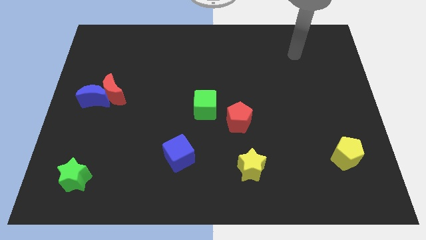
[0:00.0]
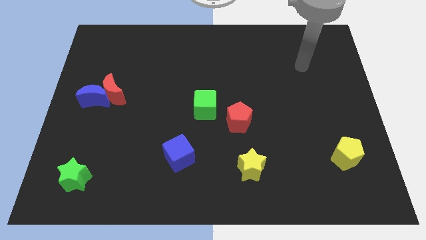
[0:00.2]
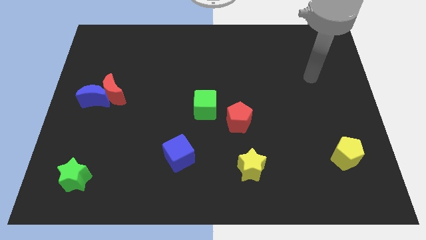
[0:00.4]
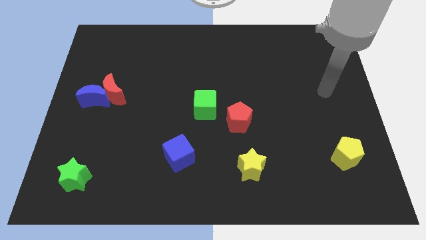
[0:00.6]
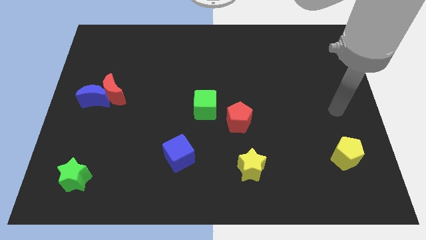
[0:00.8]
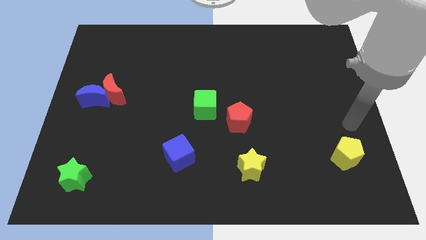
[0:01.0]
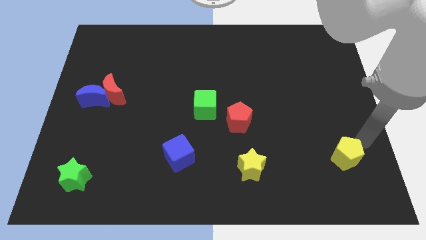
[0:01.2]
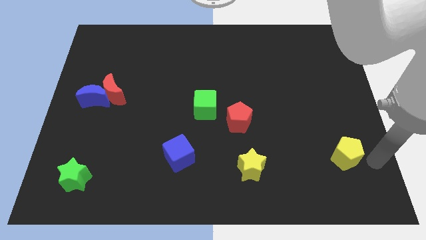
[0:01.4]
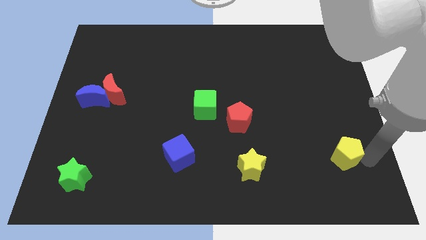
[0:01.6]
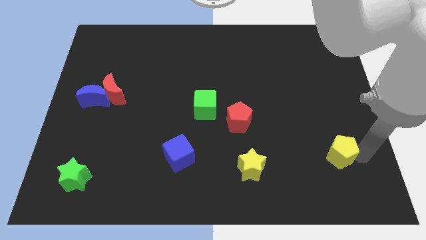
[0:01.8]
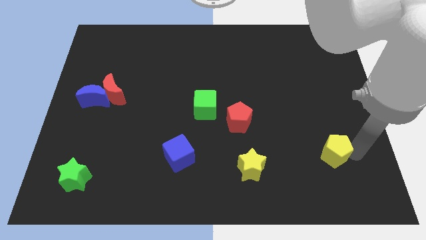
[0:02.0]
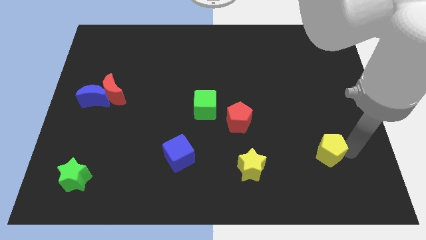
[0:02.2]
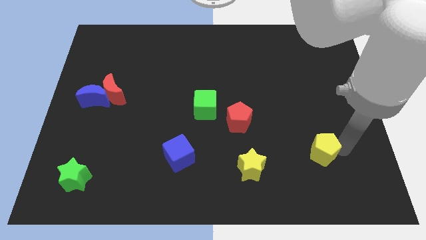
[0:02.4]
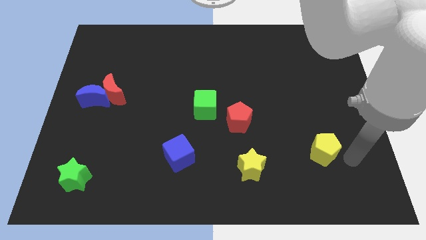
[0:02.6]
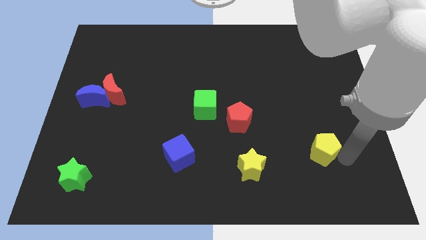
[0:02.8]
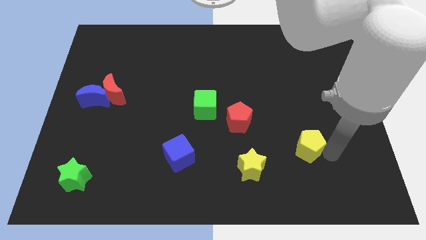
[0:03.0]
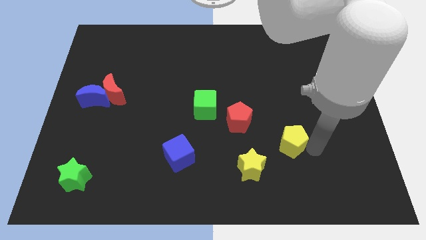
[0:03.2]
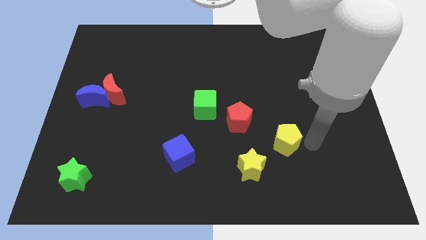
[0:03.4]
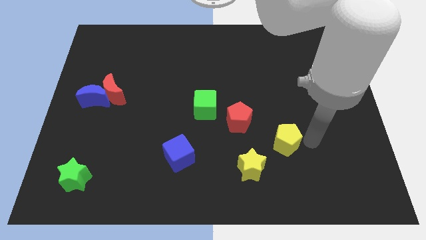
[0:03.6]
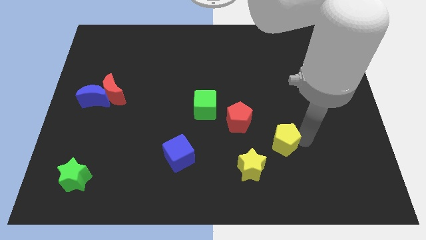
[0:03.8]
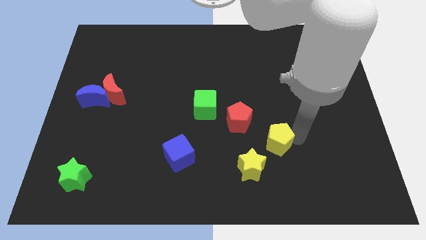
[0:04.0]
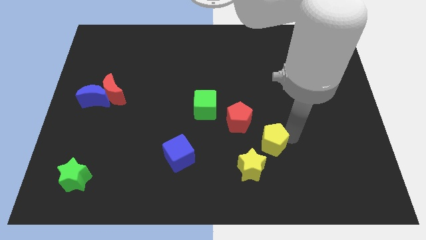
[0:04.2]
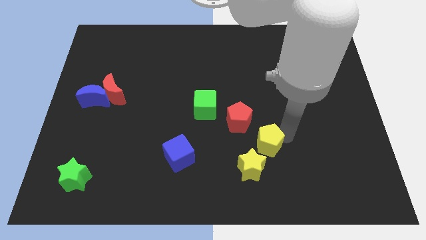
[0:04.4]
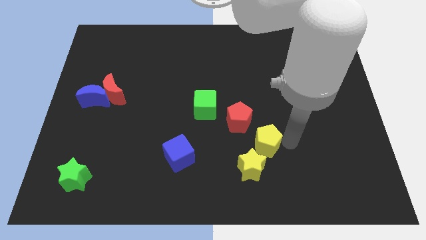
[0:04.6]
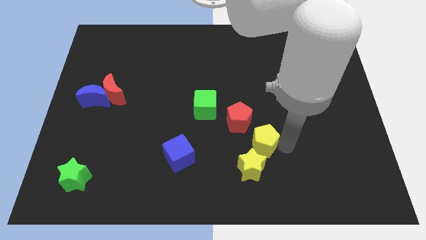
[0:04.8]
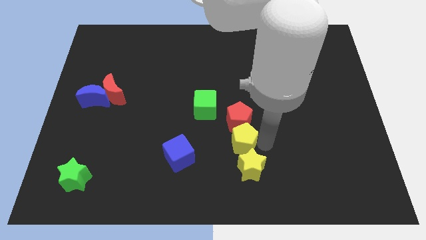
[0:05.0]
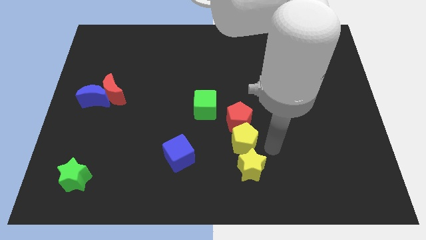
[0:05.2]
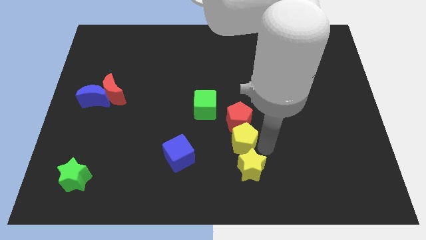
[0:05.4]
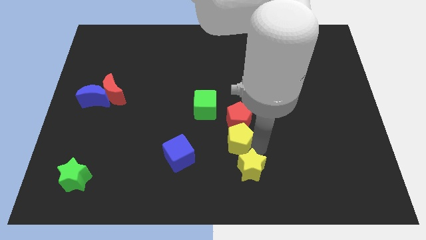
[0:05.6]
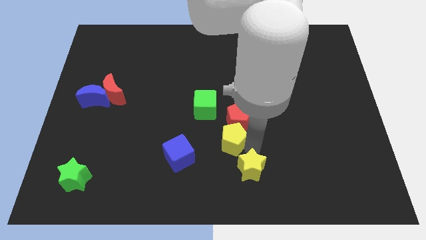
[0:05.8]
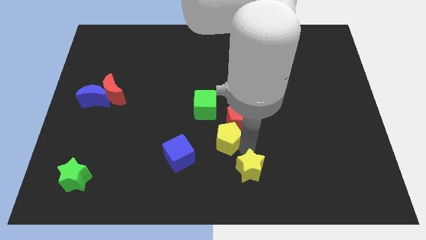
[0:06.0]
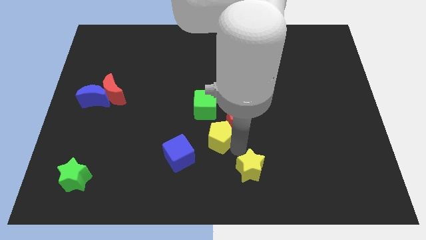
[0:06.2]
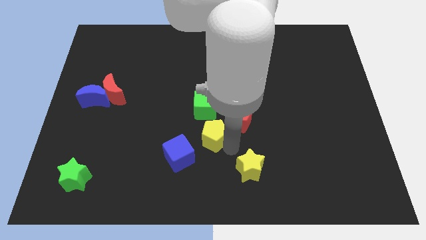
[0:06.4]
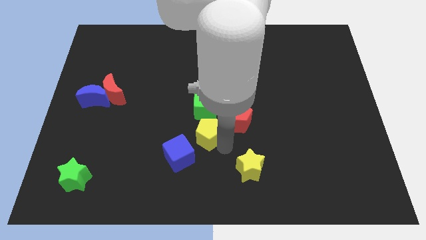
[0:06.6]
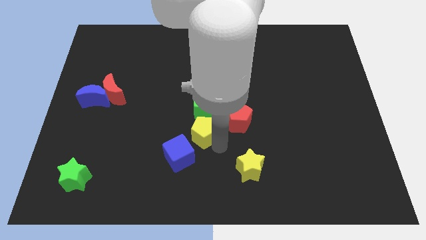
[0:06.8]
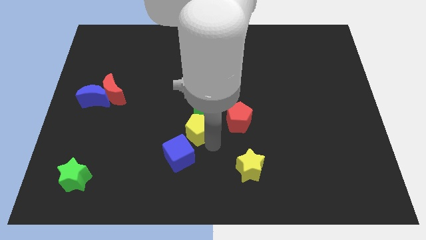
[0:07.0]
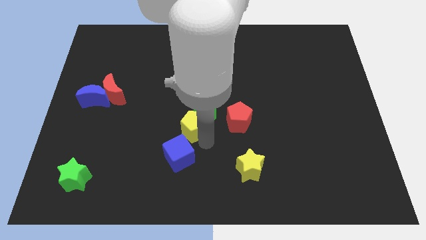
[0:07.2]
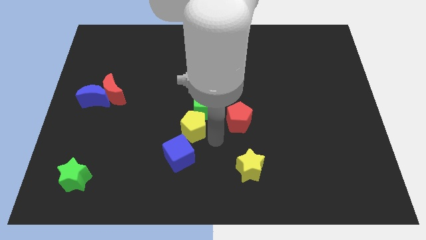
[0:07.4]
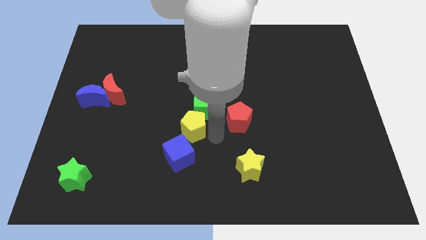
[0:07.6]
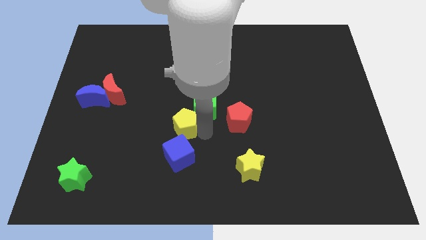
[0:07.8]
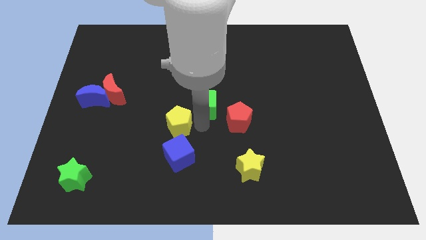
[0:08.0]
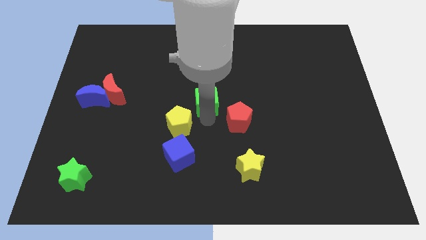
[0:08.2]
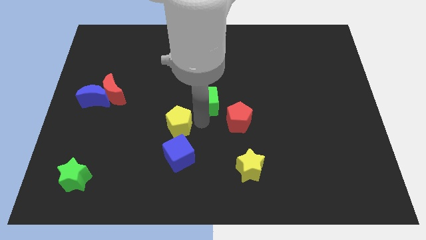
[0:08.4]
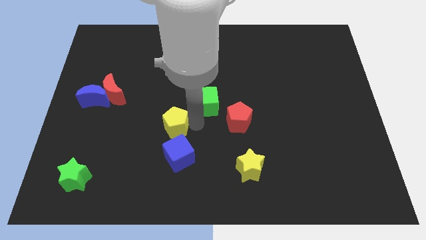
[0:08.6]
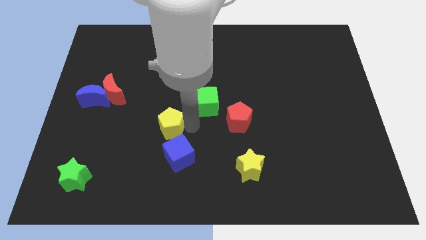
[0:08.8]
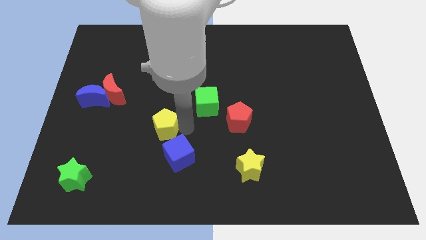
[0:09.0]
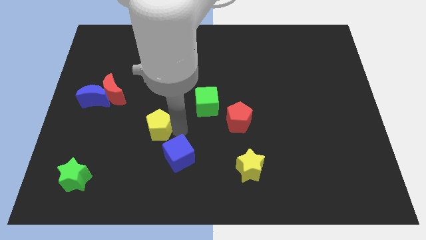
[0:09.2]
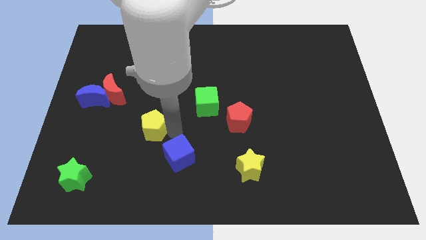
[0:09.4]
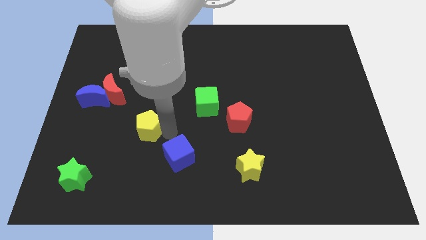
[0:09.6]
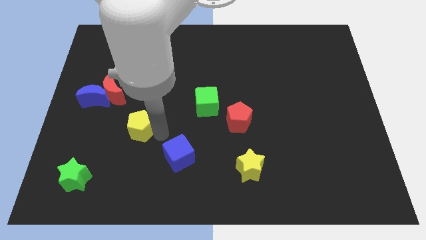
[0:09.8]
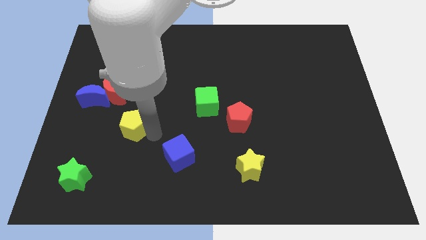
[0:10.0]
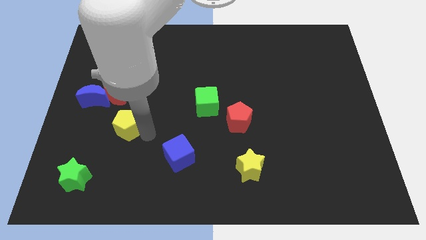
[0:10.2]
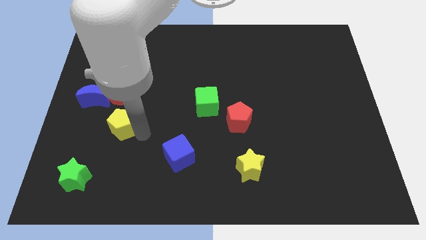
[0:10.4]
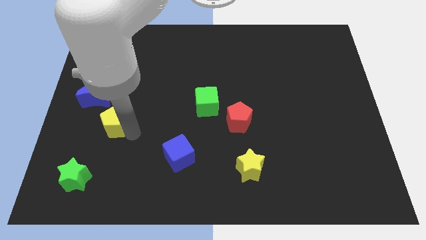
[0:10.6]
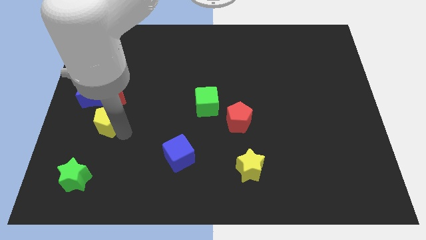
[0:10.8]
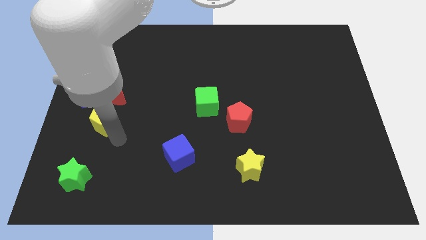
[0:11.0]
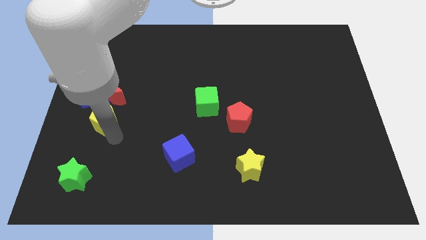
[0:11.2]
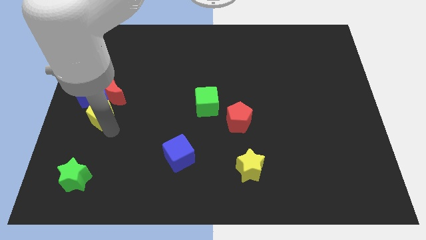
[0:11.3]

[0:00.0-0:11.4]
move the yellow pentagon towards the blue moon
